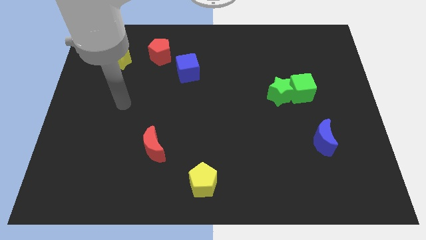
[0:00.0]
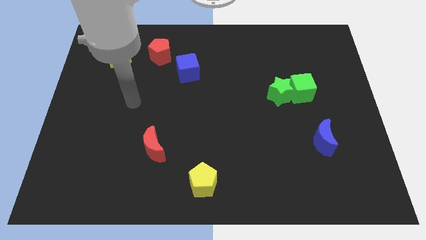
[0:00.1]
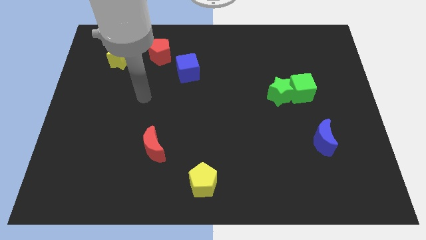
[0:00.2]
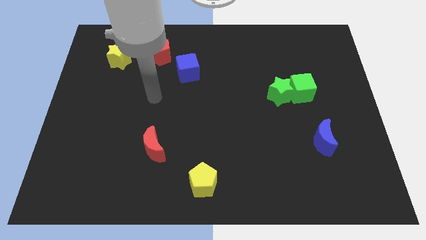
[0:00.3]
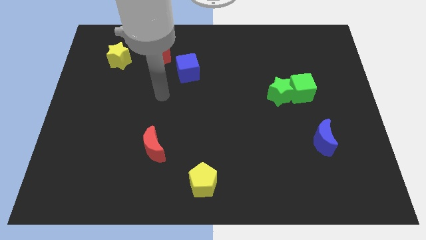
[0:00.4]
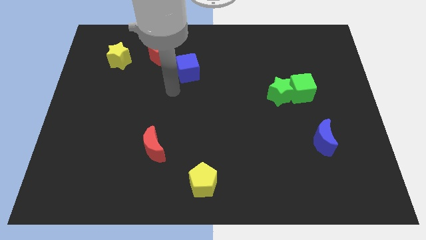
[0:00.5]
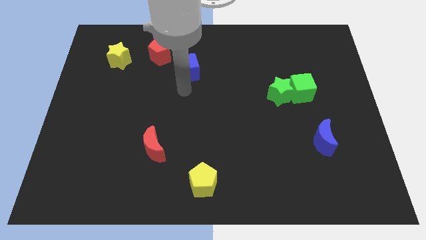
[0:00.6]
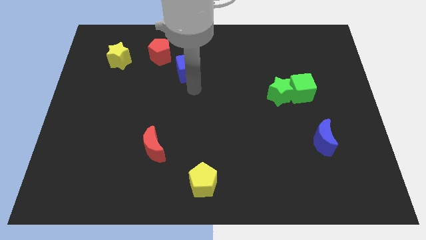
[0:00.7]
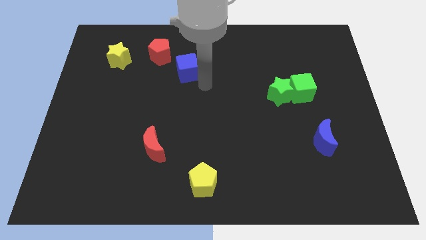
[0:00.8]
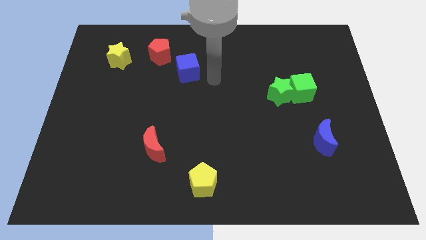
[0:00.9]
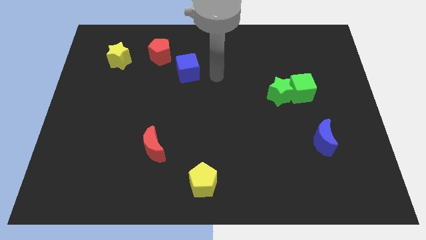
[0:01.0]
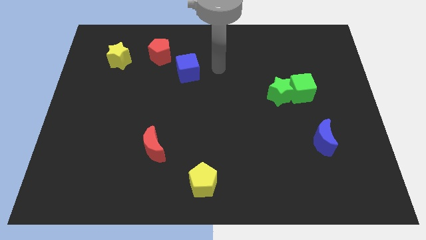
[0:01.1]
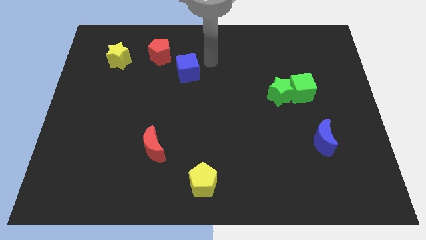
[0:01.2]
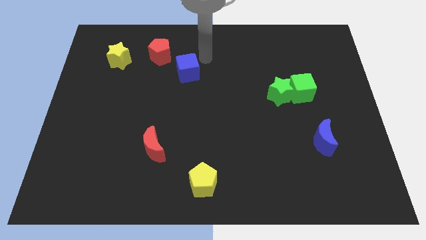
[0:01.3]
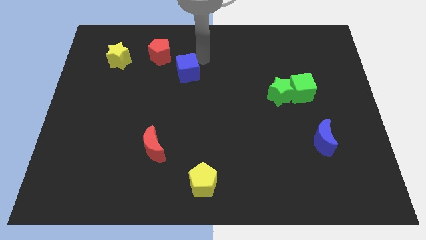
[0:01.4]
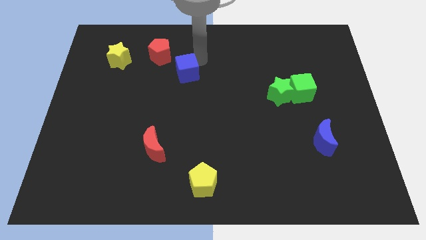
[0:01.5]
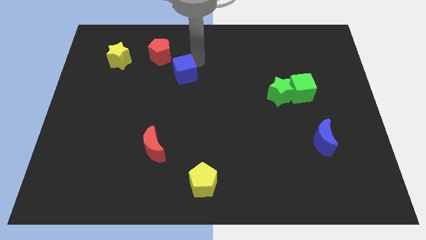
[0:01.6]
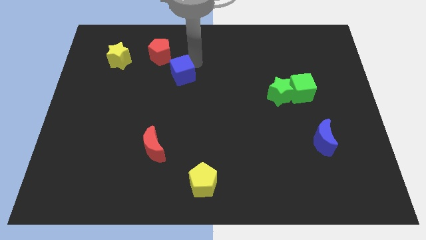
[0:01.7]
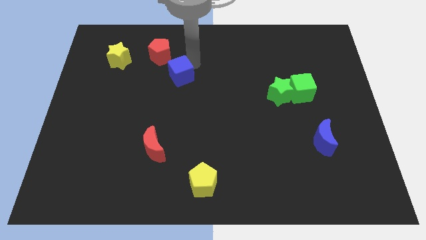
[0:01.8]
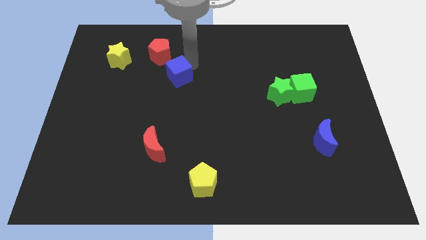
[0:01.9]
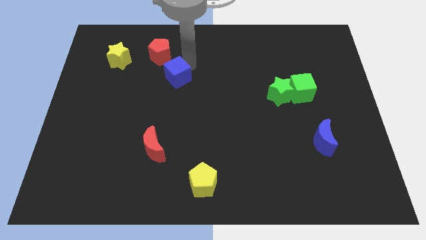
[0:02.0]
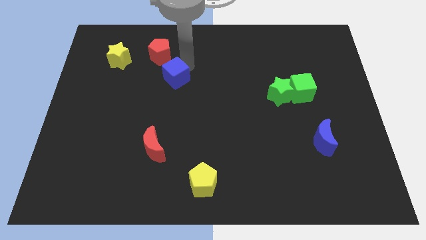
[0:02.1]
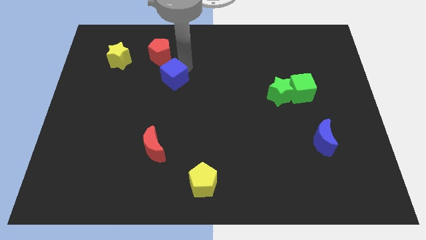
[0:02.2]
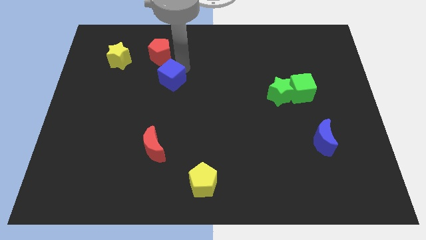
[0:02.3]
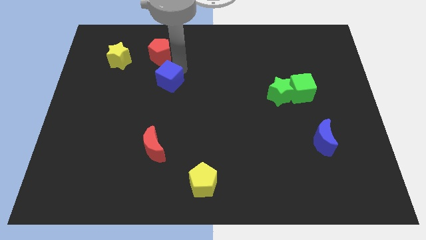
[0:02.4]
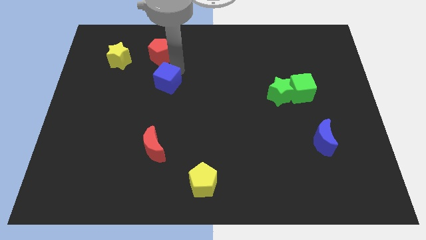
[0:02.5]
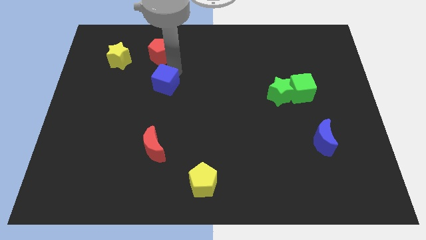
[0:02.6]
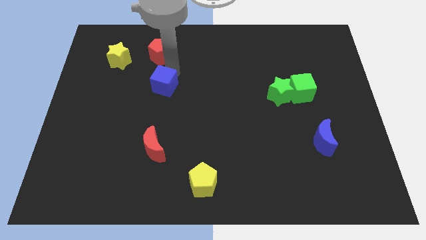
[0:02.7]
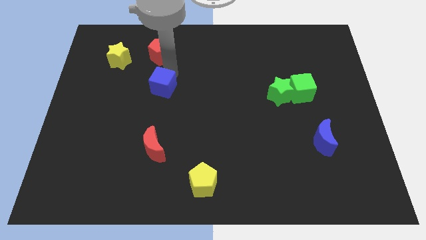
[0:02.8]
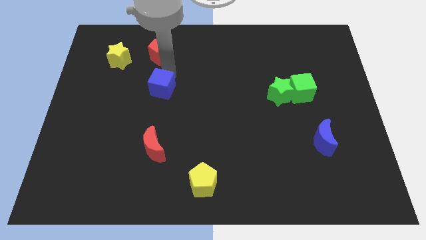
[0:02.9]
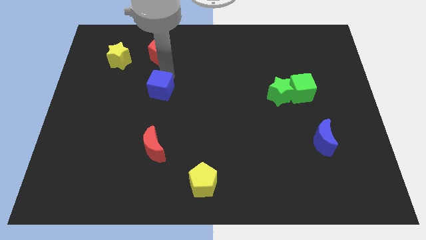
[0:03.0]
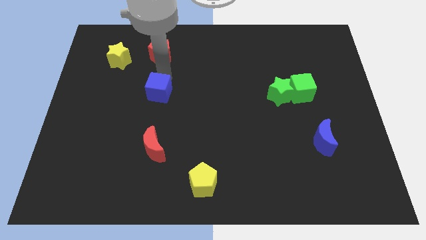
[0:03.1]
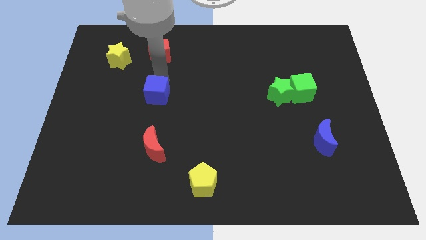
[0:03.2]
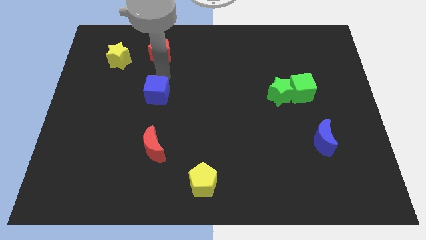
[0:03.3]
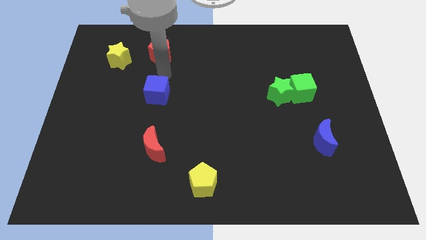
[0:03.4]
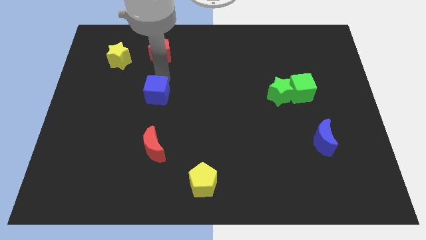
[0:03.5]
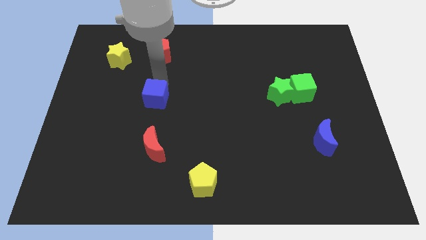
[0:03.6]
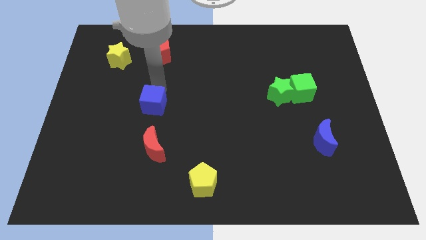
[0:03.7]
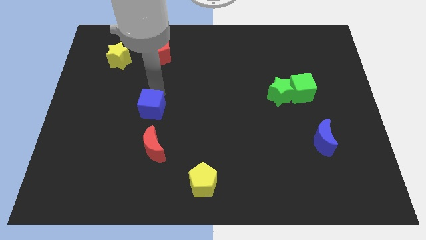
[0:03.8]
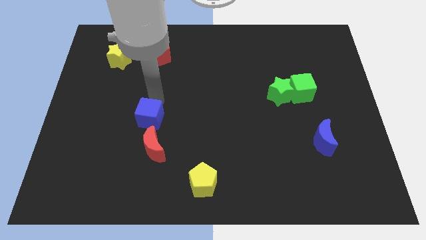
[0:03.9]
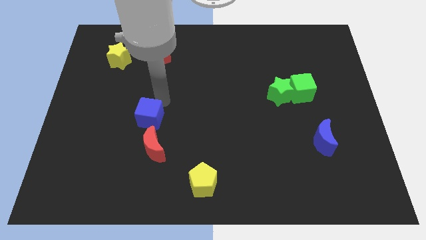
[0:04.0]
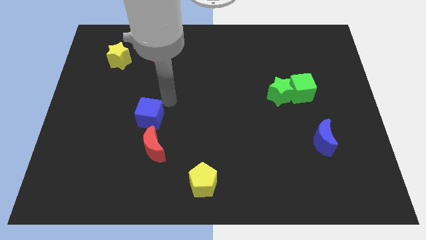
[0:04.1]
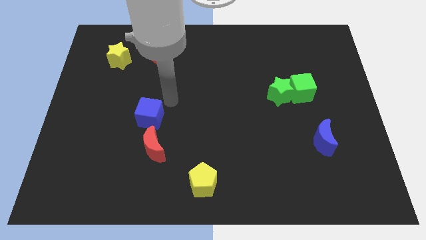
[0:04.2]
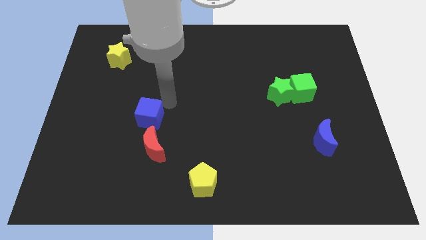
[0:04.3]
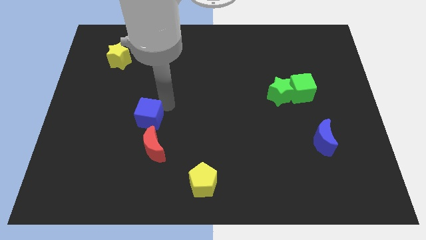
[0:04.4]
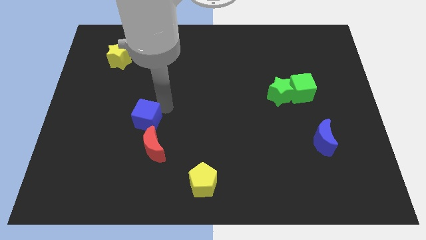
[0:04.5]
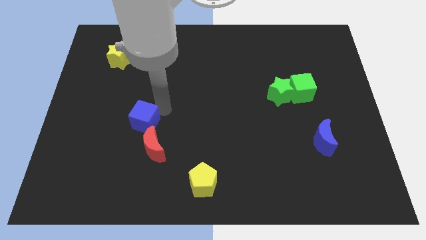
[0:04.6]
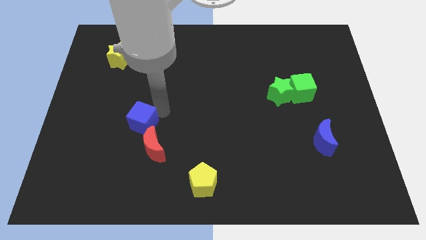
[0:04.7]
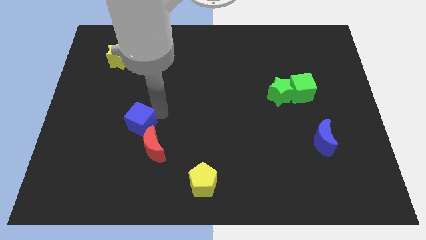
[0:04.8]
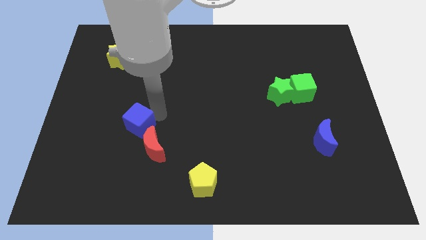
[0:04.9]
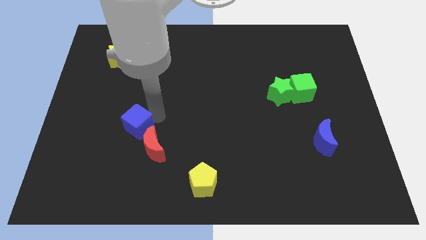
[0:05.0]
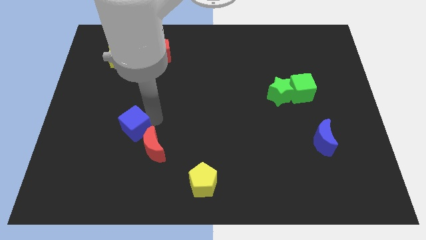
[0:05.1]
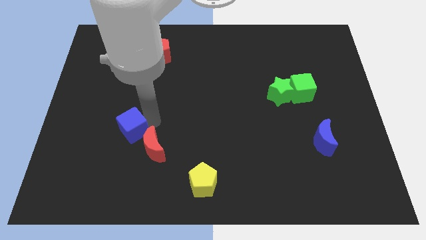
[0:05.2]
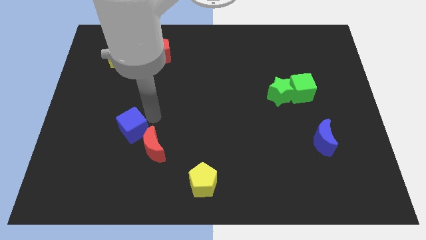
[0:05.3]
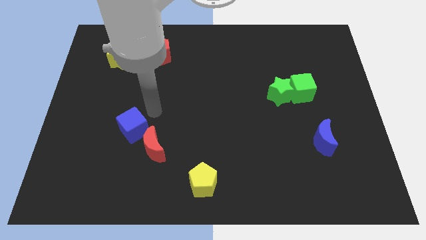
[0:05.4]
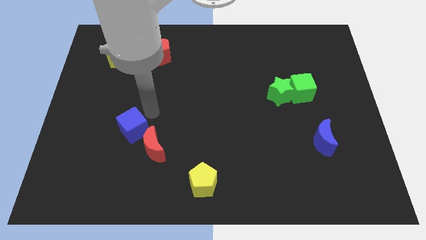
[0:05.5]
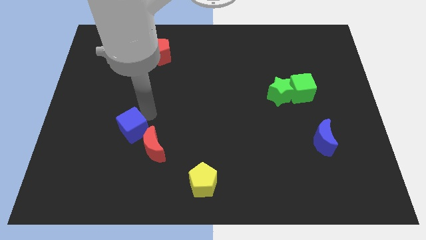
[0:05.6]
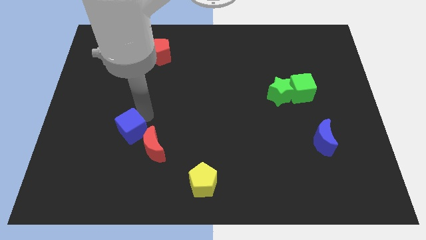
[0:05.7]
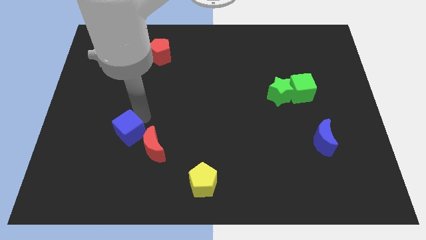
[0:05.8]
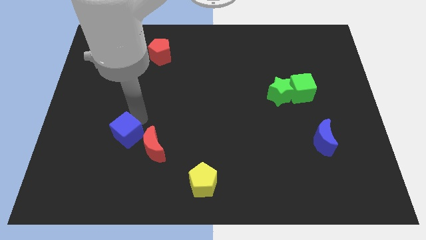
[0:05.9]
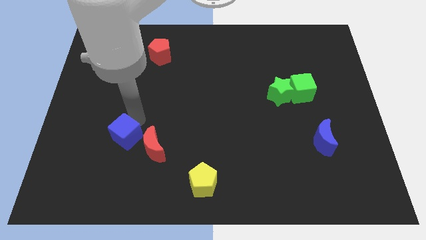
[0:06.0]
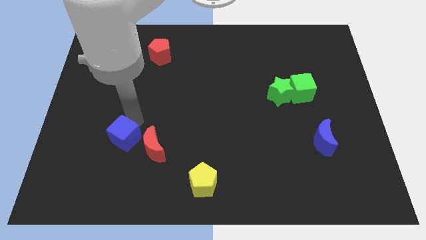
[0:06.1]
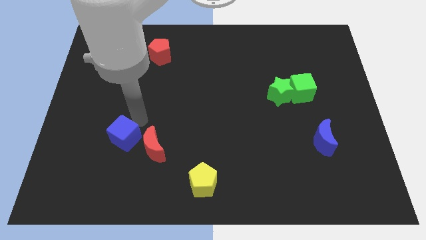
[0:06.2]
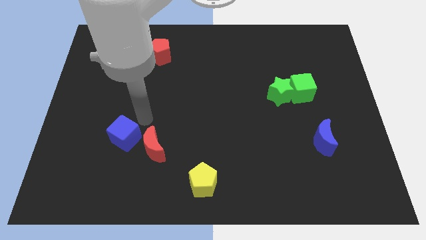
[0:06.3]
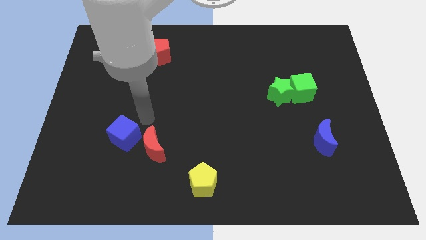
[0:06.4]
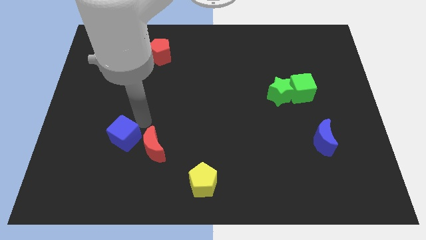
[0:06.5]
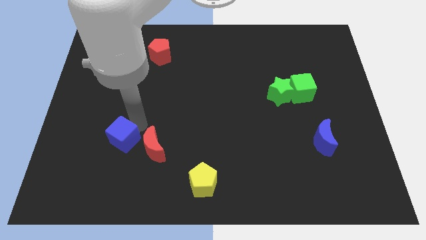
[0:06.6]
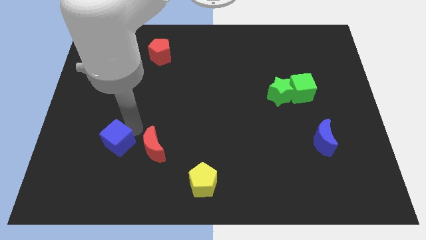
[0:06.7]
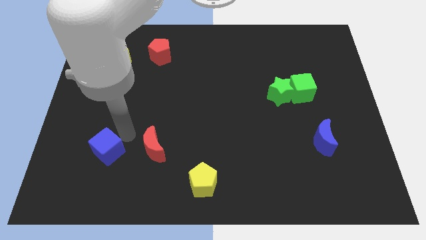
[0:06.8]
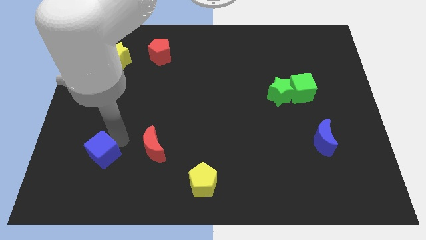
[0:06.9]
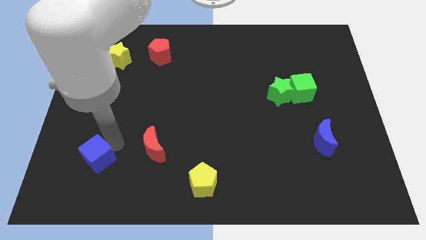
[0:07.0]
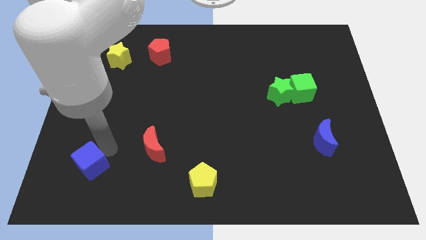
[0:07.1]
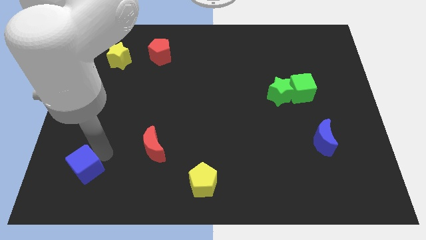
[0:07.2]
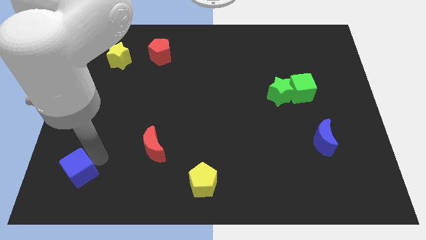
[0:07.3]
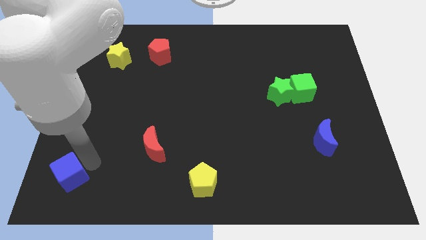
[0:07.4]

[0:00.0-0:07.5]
put the blue cube to the bottom left of the board

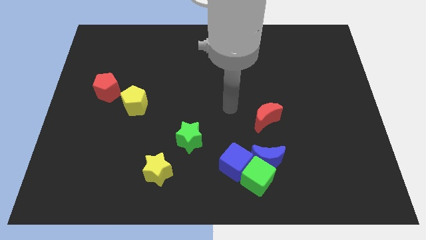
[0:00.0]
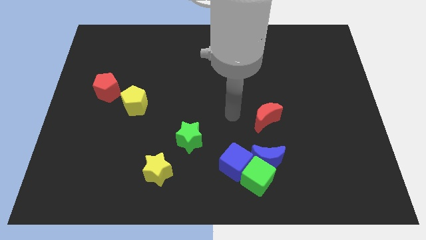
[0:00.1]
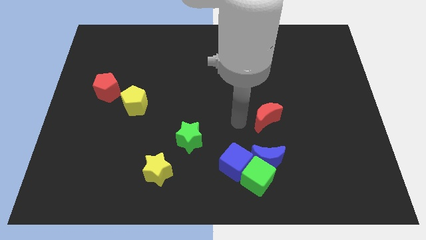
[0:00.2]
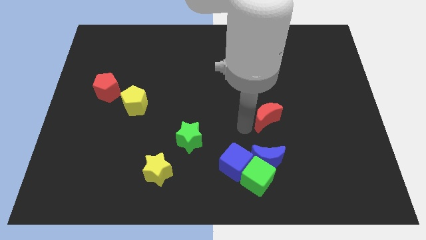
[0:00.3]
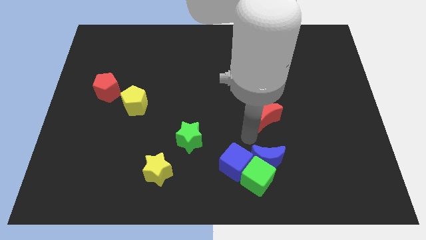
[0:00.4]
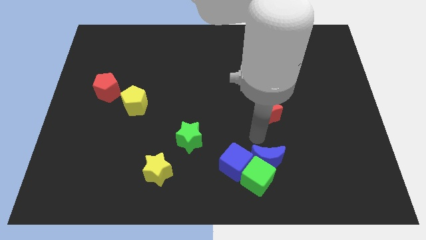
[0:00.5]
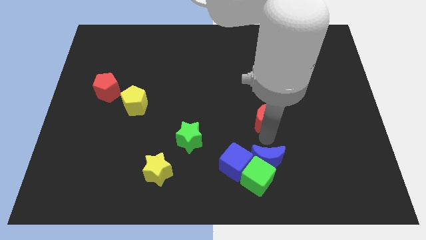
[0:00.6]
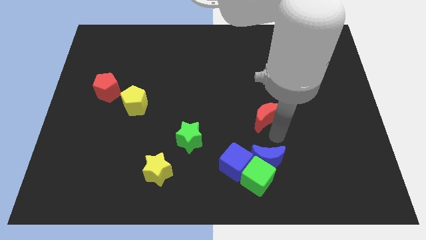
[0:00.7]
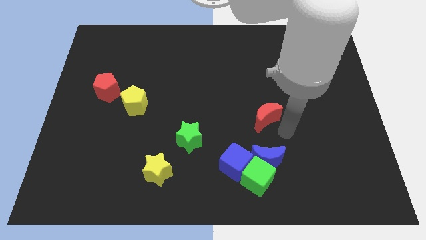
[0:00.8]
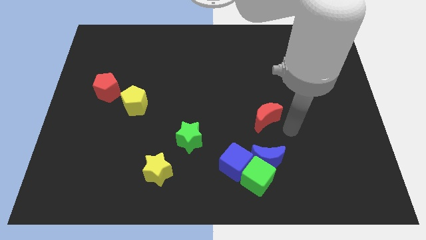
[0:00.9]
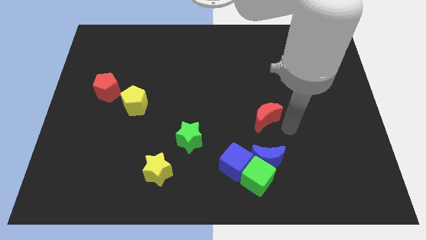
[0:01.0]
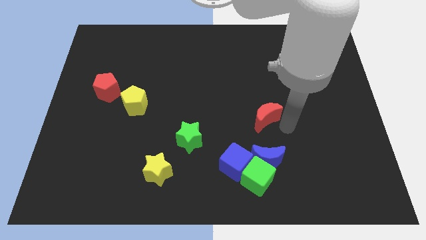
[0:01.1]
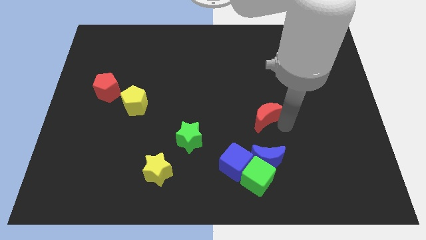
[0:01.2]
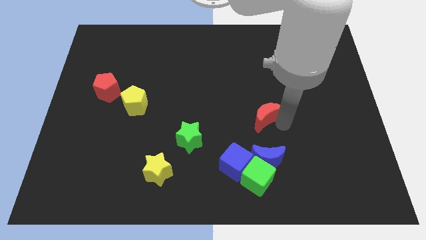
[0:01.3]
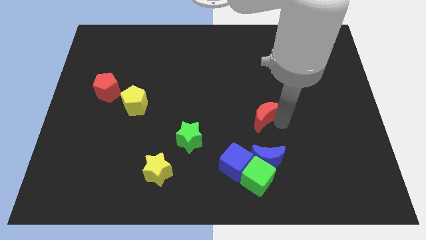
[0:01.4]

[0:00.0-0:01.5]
put the red moon to the center of the board
